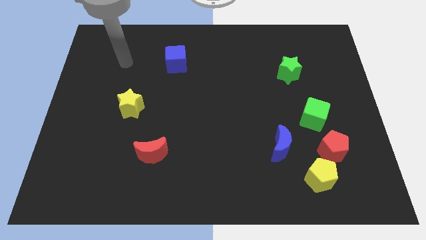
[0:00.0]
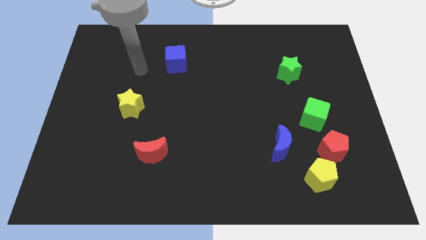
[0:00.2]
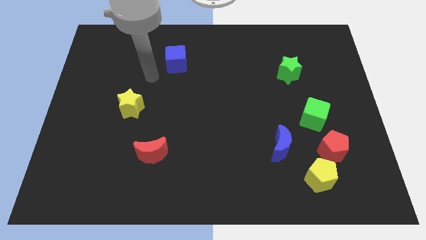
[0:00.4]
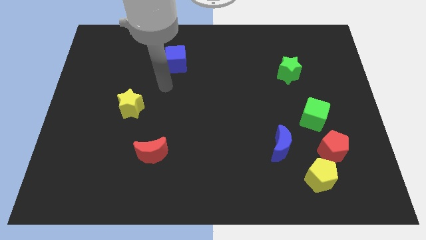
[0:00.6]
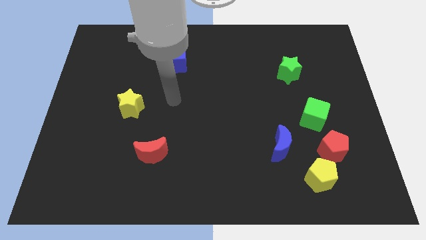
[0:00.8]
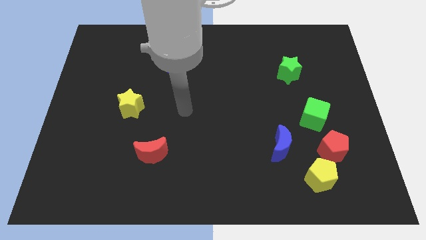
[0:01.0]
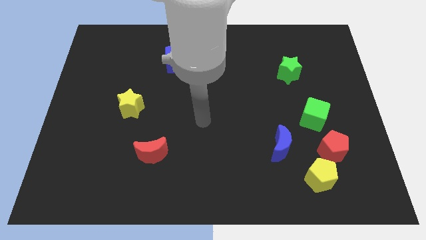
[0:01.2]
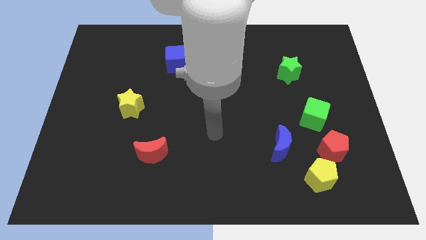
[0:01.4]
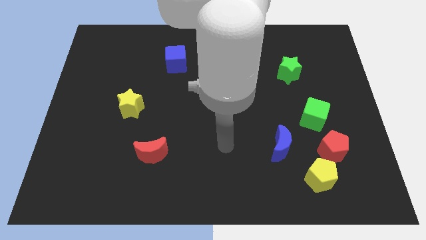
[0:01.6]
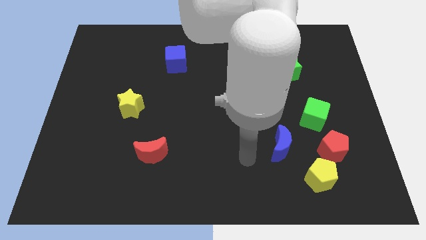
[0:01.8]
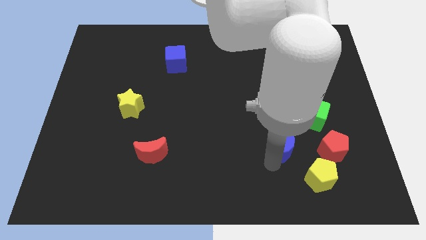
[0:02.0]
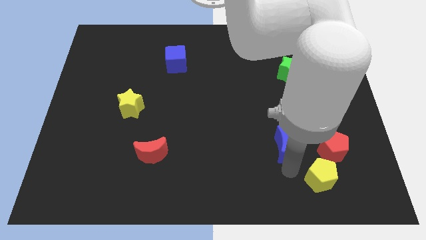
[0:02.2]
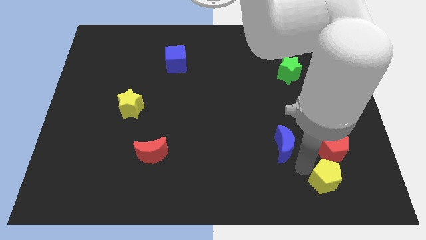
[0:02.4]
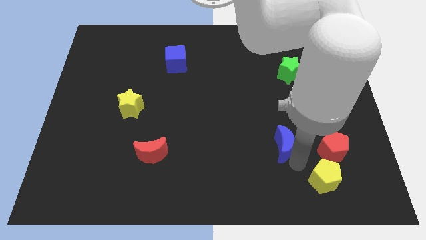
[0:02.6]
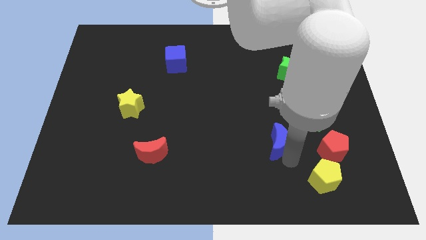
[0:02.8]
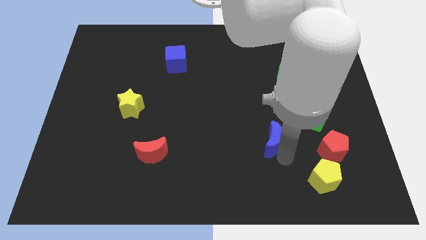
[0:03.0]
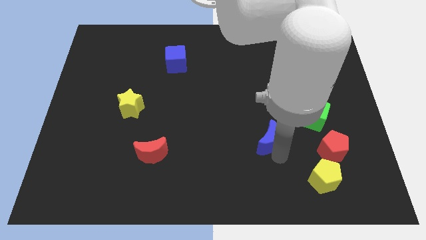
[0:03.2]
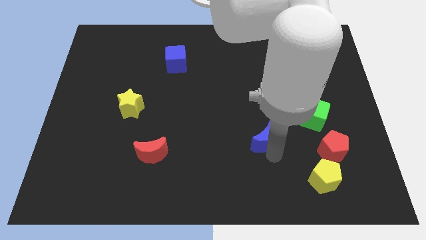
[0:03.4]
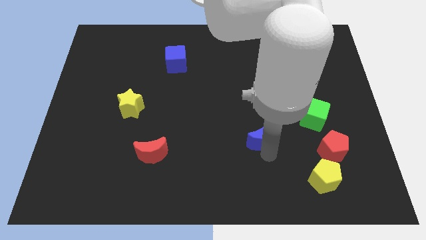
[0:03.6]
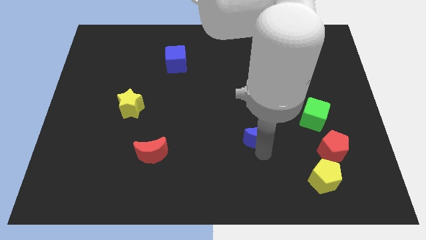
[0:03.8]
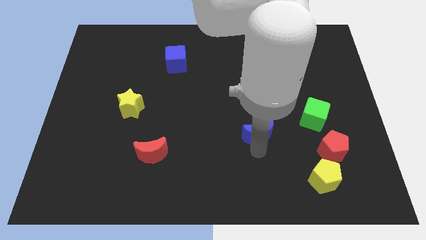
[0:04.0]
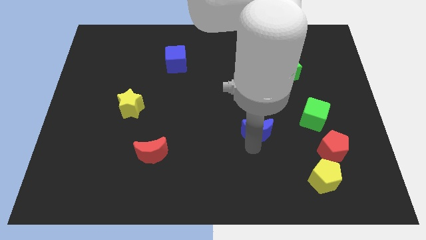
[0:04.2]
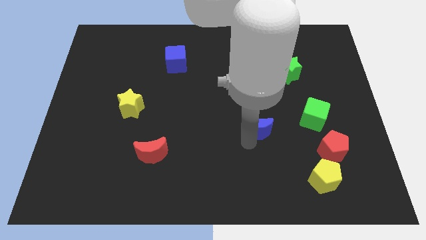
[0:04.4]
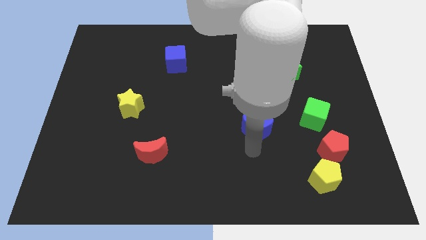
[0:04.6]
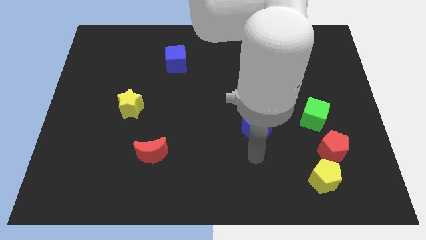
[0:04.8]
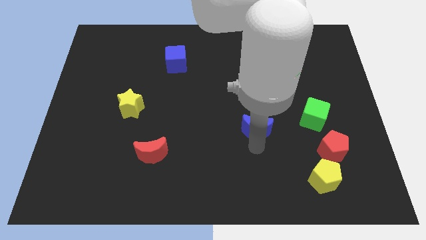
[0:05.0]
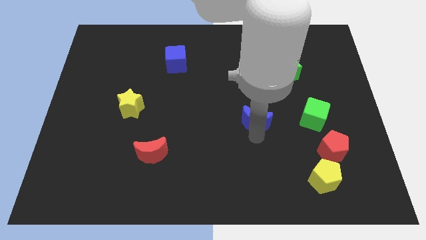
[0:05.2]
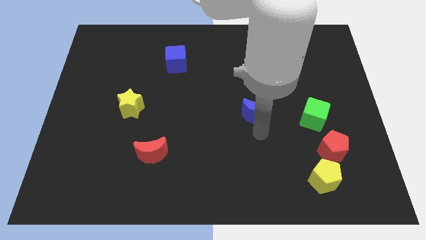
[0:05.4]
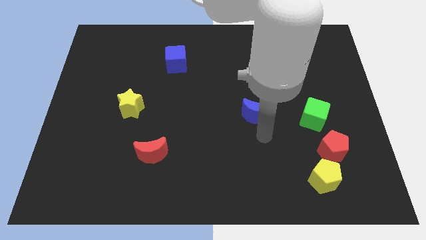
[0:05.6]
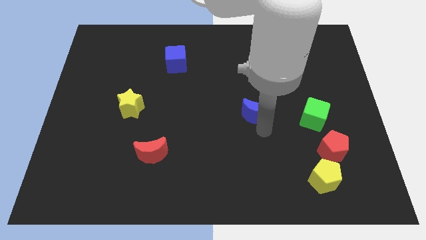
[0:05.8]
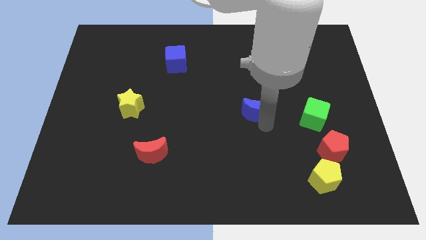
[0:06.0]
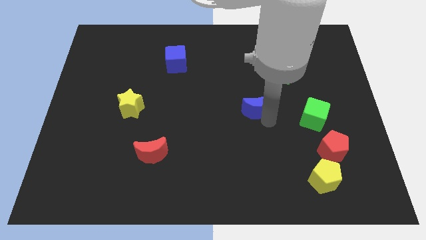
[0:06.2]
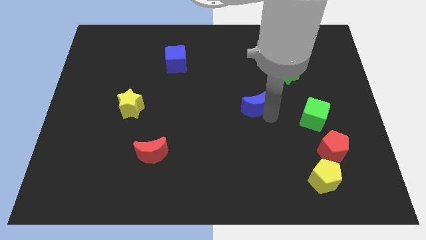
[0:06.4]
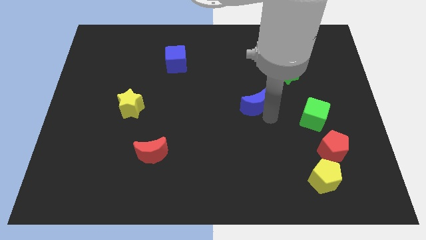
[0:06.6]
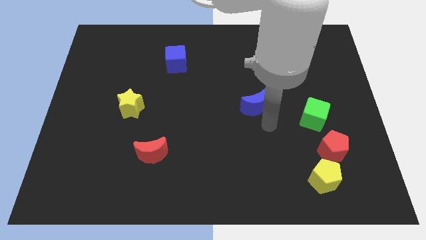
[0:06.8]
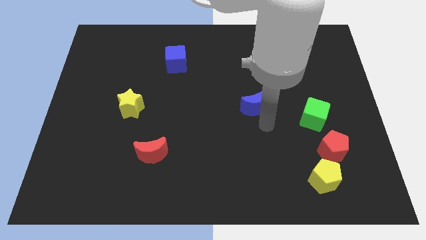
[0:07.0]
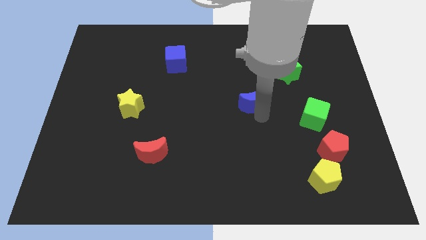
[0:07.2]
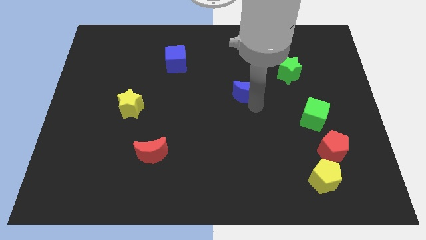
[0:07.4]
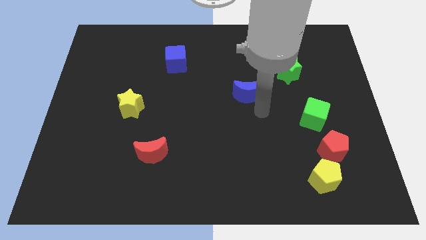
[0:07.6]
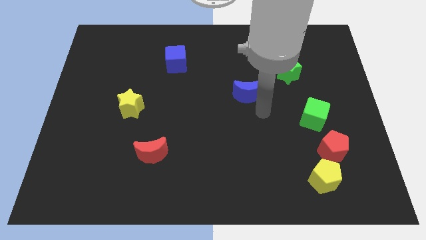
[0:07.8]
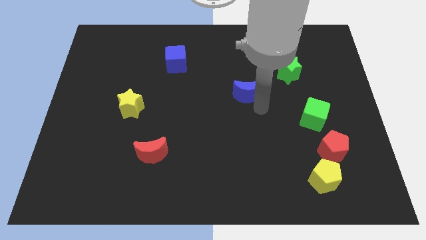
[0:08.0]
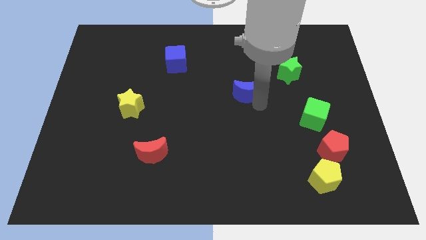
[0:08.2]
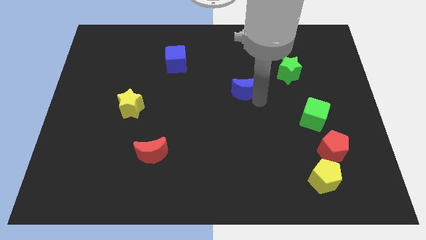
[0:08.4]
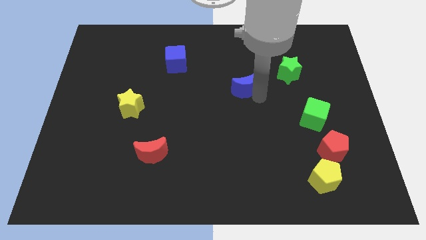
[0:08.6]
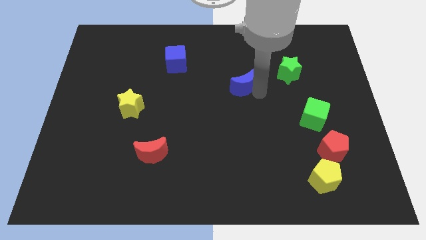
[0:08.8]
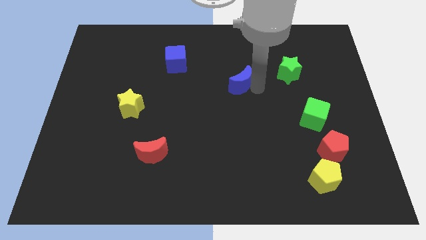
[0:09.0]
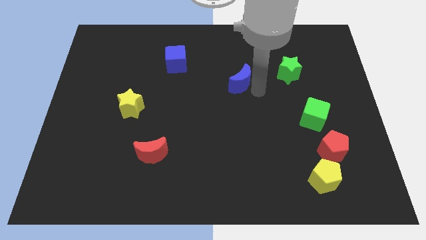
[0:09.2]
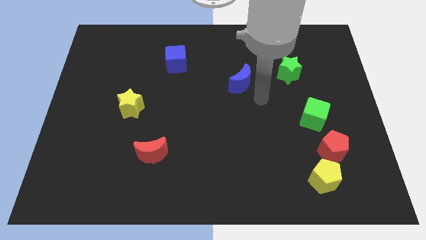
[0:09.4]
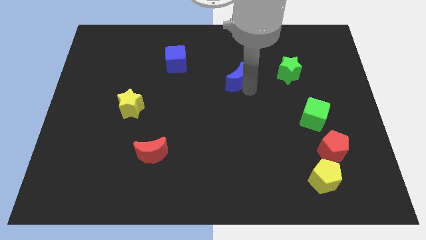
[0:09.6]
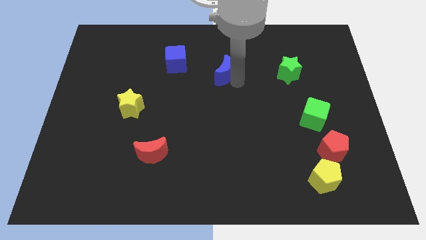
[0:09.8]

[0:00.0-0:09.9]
slide the blue moon to the right of the blue cube

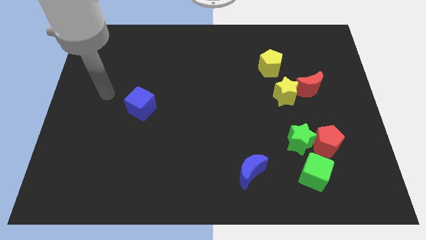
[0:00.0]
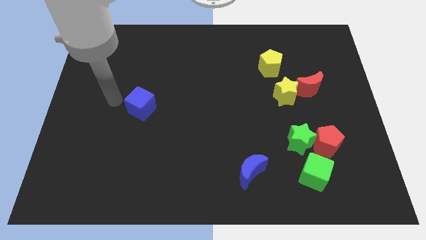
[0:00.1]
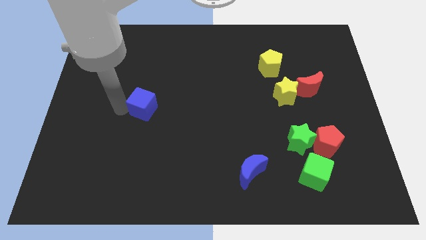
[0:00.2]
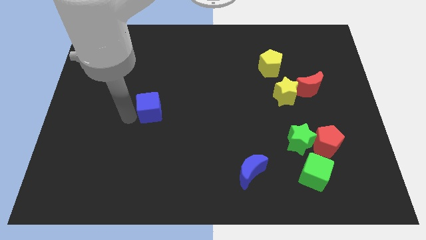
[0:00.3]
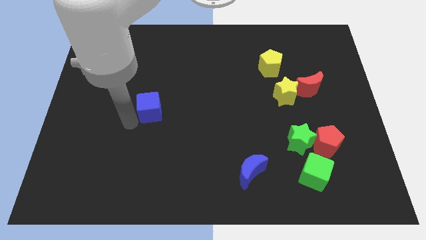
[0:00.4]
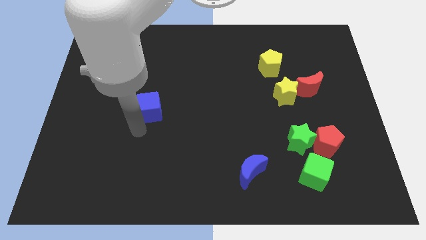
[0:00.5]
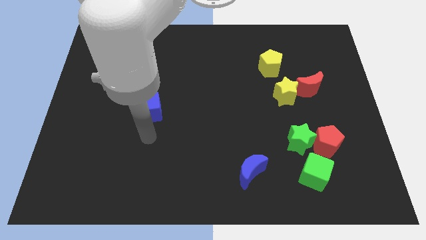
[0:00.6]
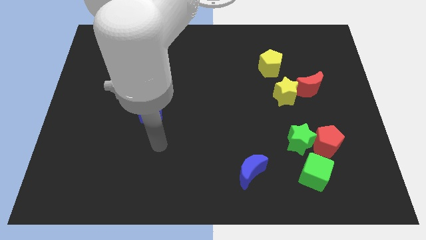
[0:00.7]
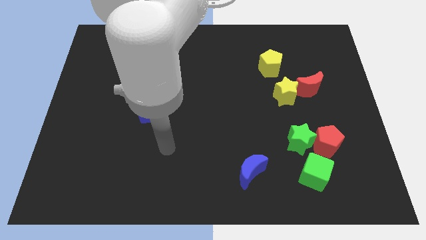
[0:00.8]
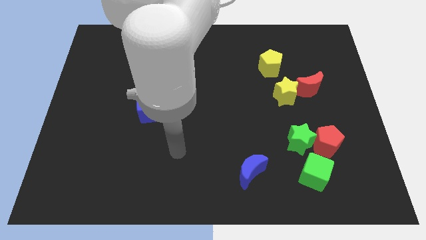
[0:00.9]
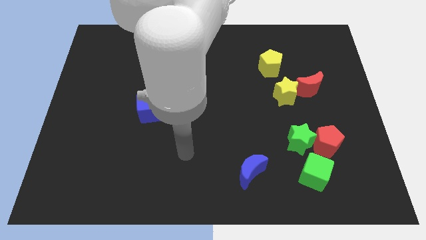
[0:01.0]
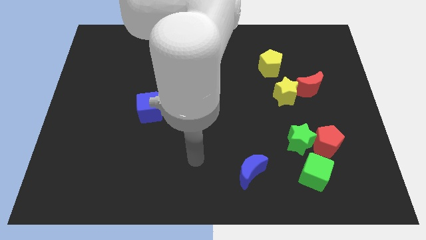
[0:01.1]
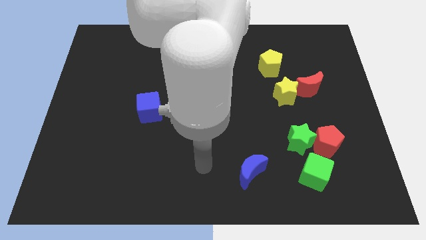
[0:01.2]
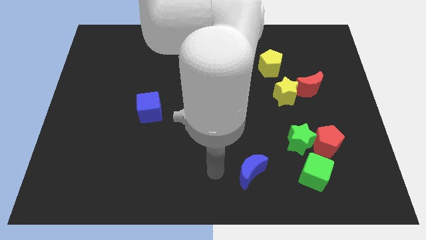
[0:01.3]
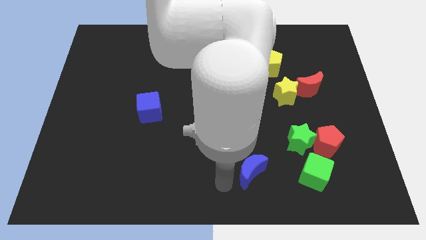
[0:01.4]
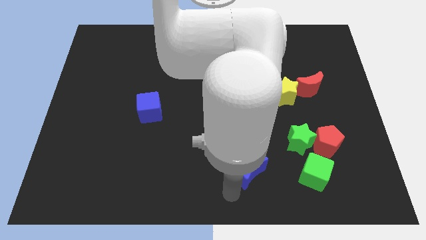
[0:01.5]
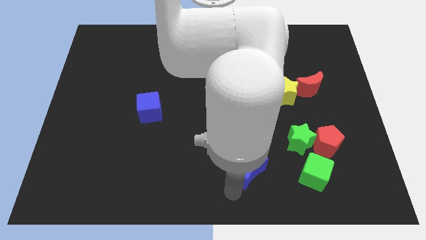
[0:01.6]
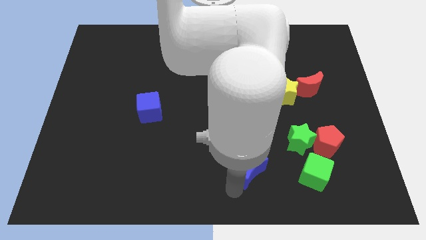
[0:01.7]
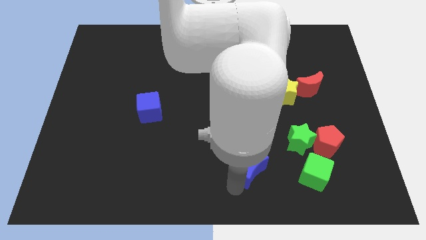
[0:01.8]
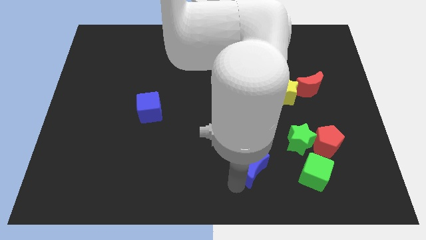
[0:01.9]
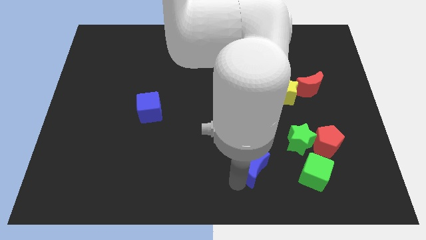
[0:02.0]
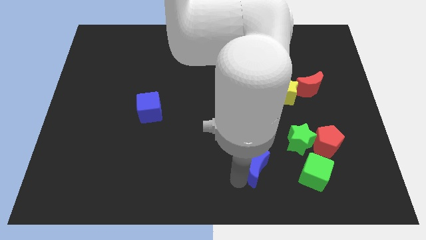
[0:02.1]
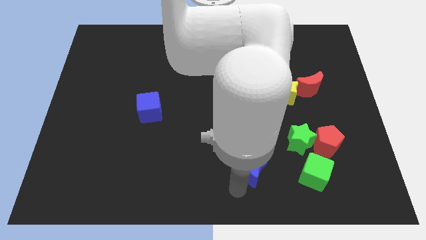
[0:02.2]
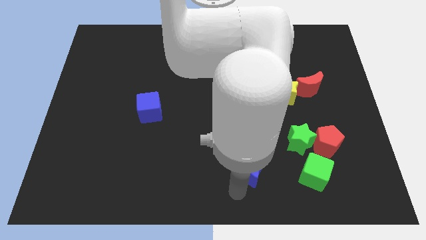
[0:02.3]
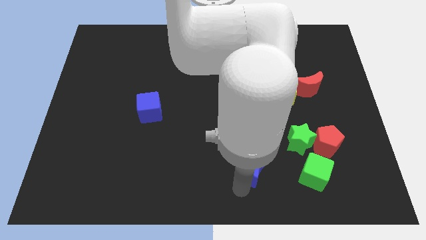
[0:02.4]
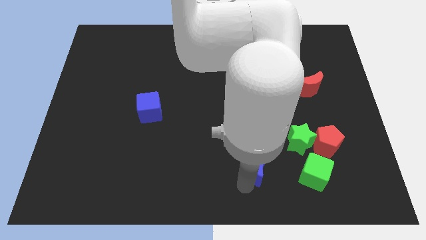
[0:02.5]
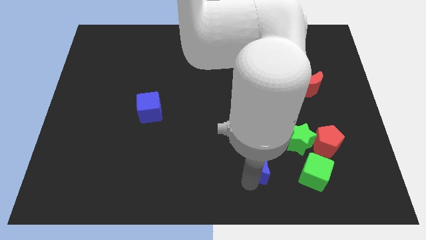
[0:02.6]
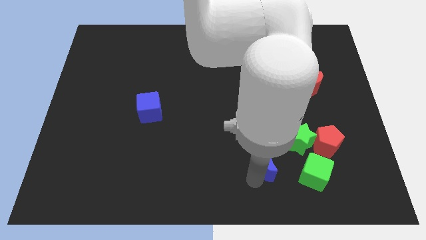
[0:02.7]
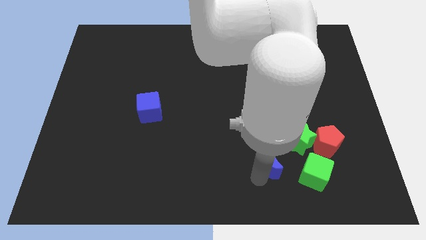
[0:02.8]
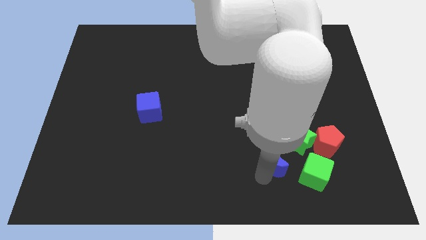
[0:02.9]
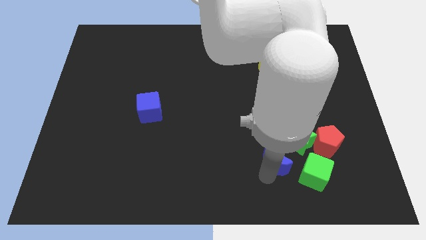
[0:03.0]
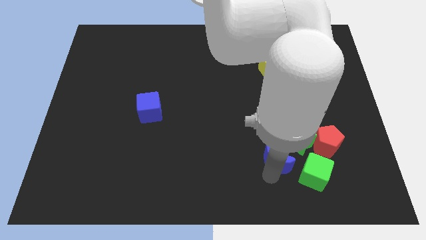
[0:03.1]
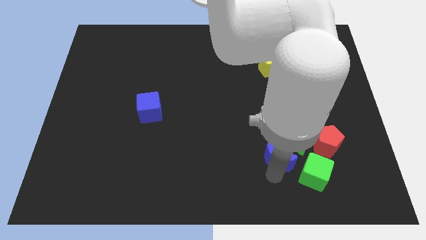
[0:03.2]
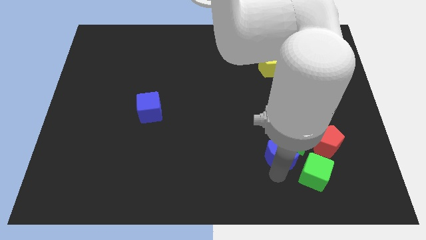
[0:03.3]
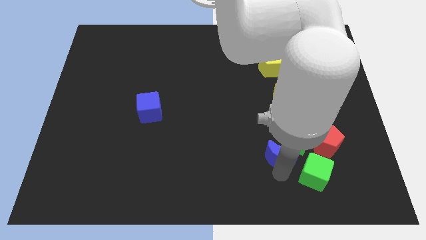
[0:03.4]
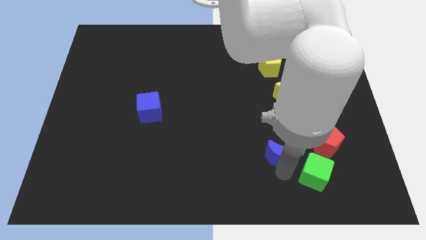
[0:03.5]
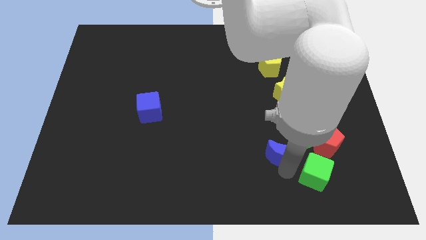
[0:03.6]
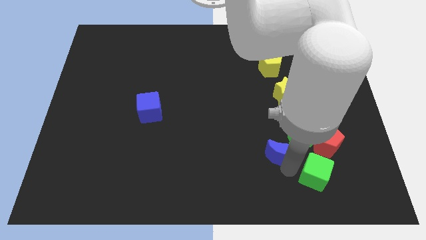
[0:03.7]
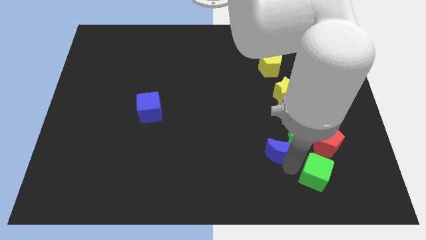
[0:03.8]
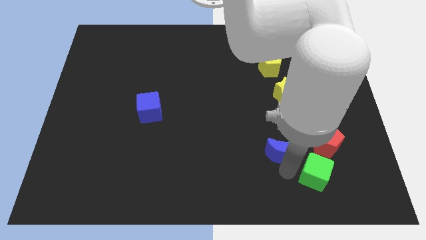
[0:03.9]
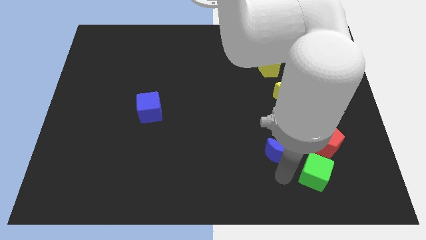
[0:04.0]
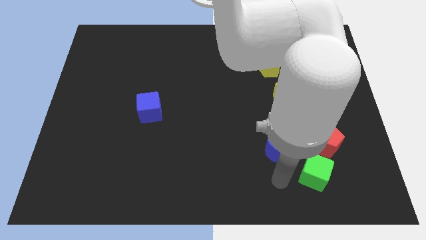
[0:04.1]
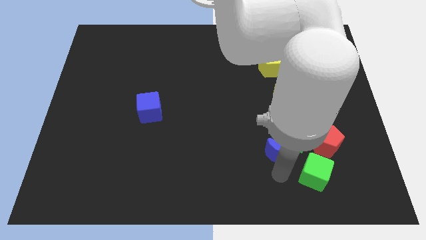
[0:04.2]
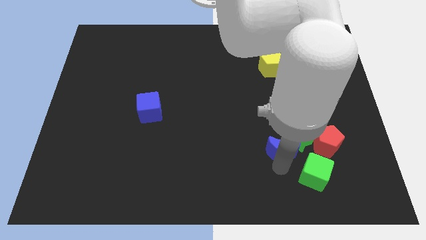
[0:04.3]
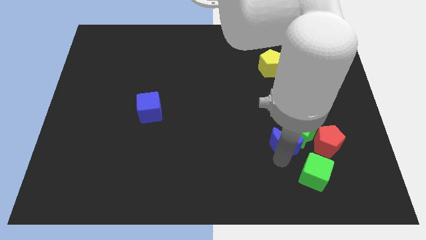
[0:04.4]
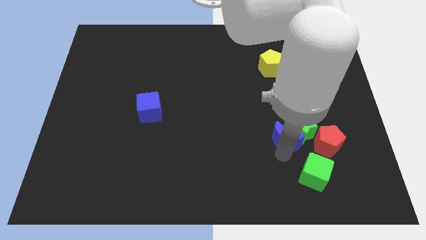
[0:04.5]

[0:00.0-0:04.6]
push the blue moon above the green cube
